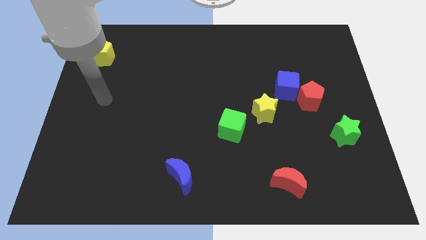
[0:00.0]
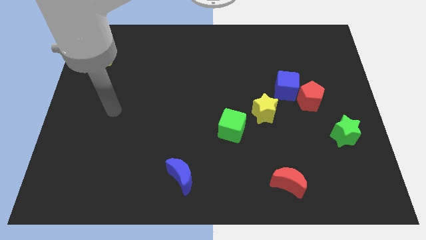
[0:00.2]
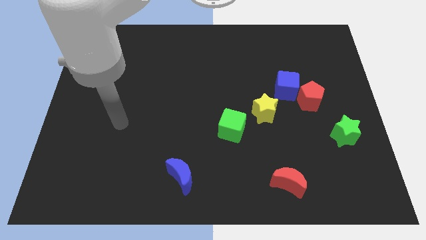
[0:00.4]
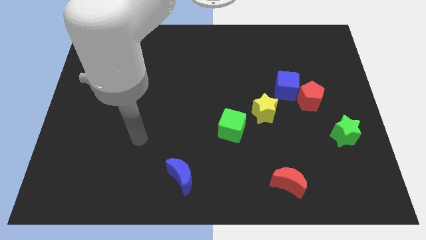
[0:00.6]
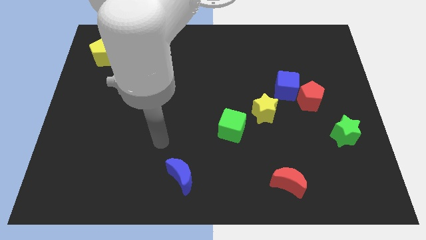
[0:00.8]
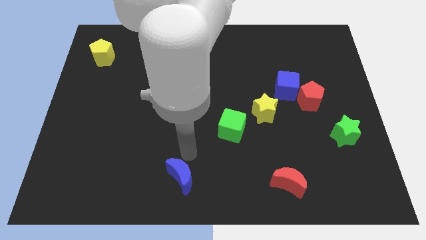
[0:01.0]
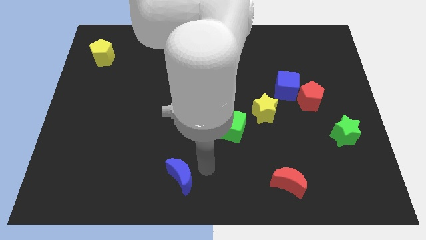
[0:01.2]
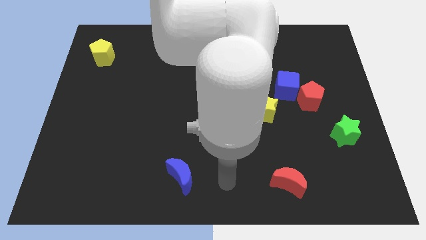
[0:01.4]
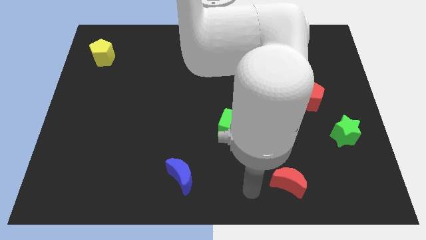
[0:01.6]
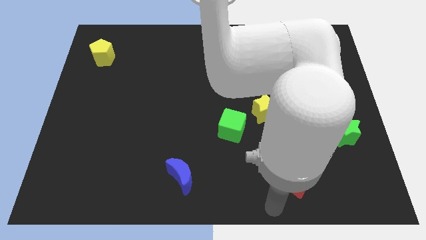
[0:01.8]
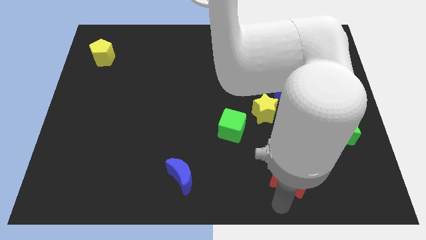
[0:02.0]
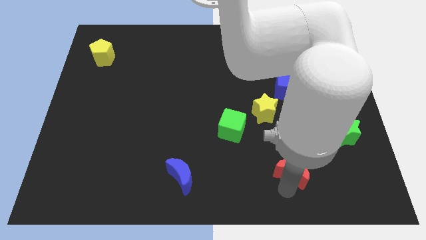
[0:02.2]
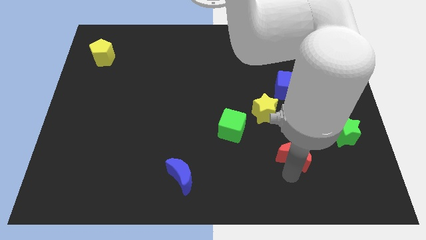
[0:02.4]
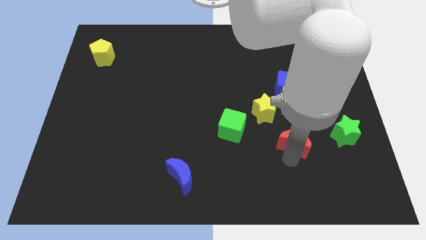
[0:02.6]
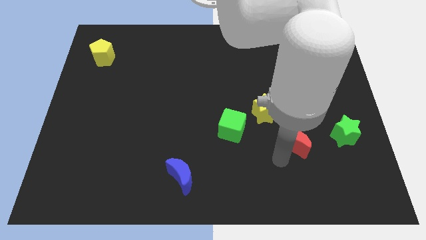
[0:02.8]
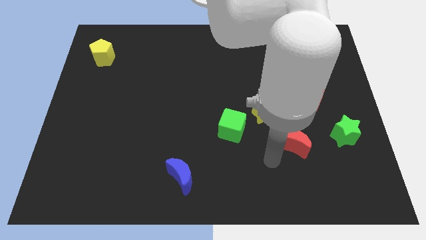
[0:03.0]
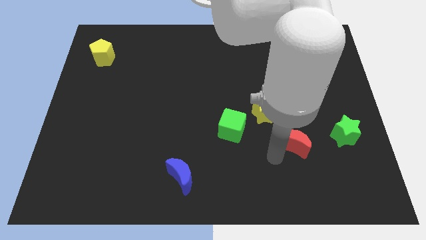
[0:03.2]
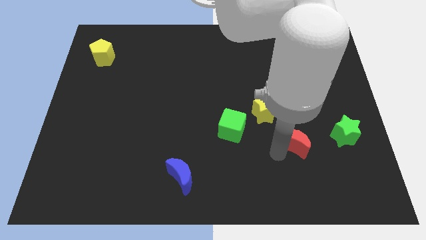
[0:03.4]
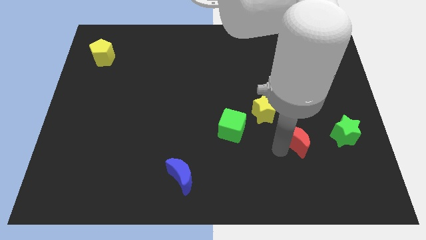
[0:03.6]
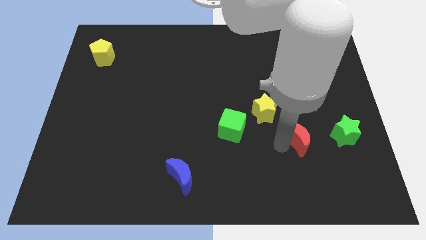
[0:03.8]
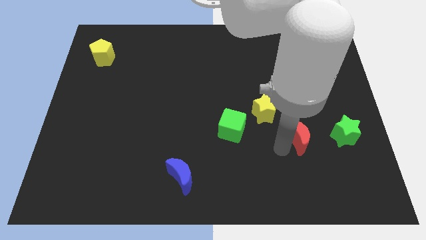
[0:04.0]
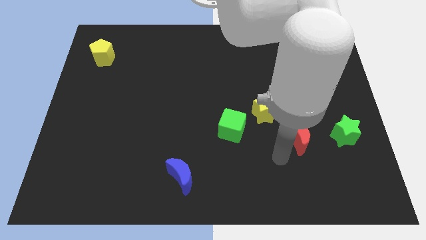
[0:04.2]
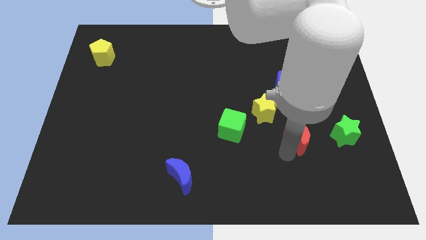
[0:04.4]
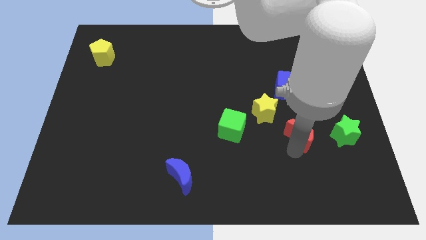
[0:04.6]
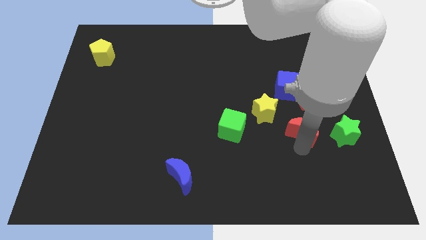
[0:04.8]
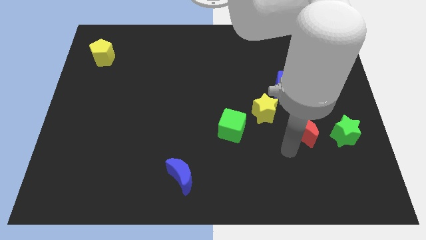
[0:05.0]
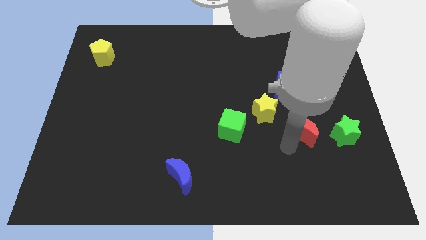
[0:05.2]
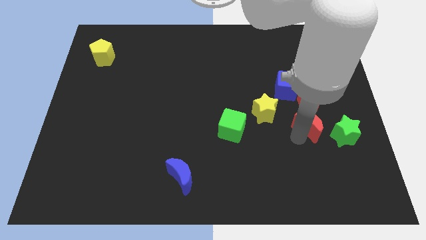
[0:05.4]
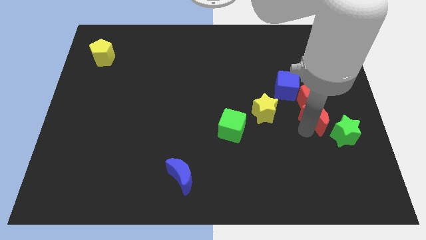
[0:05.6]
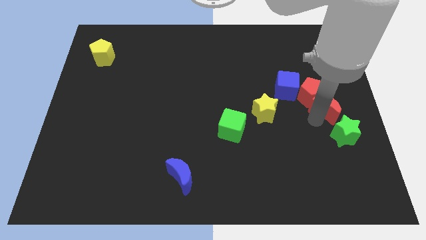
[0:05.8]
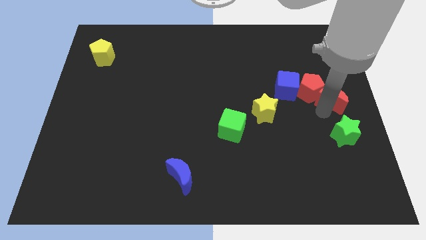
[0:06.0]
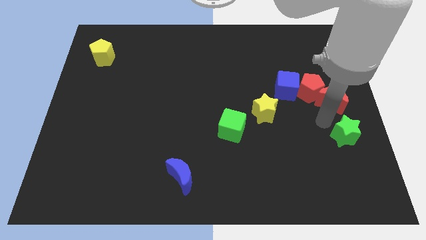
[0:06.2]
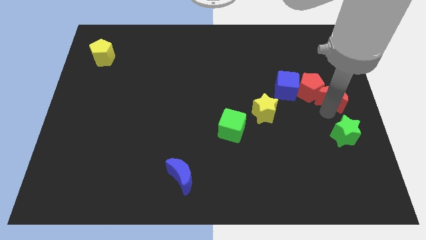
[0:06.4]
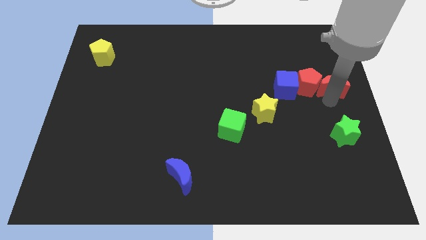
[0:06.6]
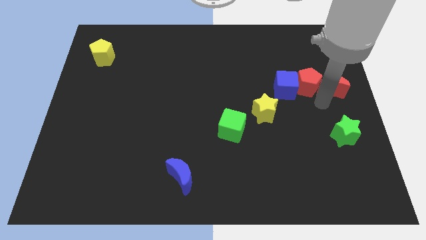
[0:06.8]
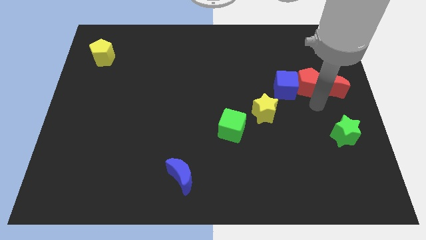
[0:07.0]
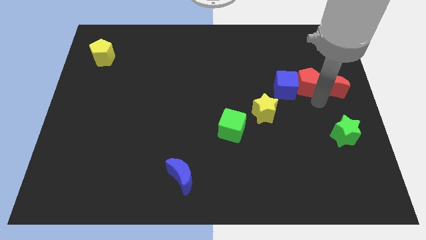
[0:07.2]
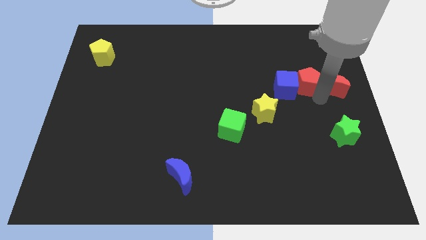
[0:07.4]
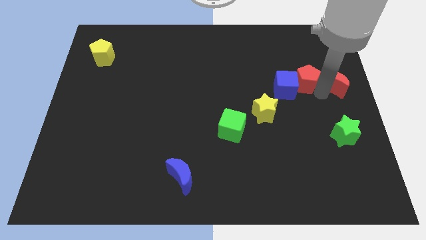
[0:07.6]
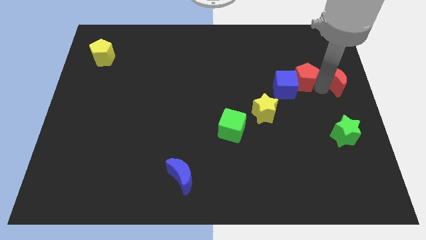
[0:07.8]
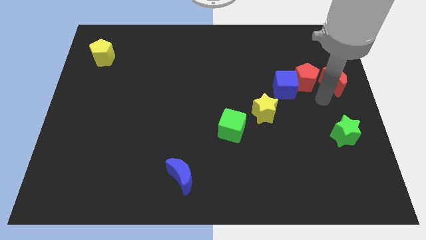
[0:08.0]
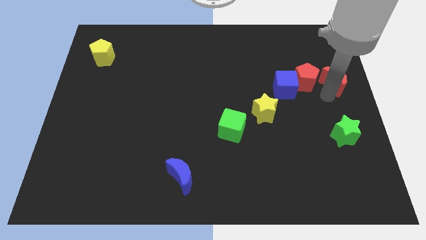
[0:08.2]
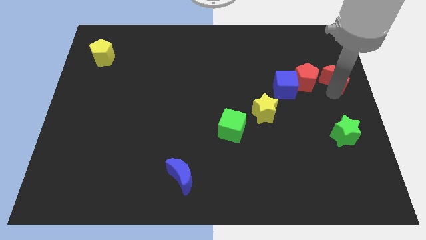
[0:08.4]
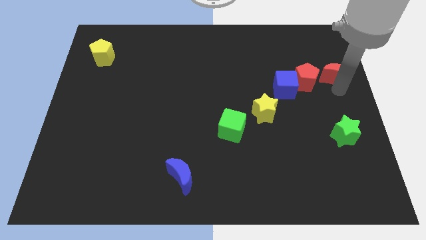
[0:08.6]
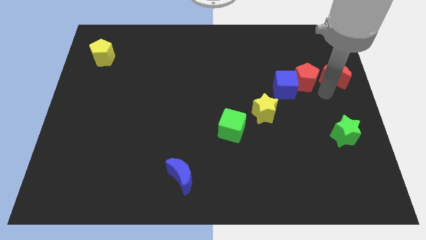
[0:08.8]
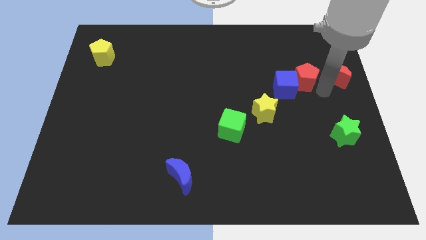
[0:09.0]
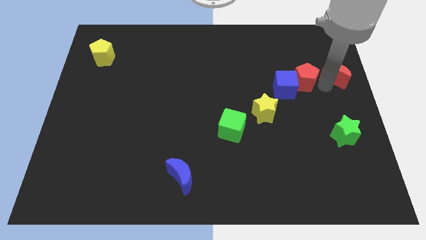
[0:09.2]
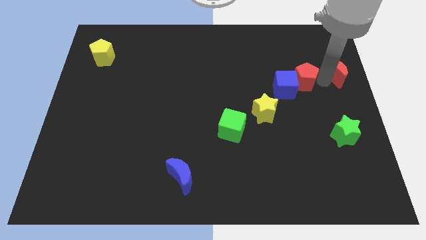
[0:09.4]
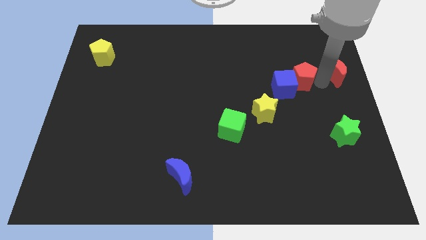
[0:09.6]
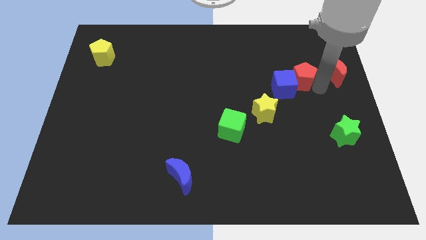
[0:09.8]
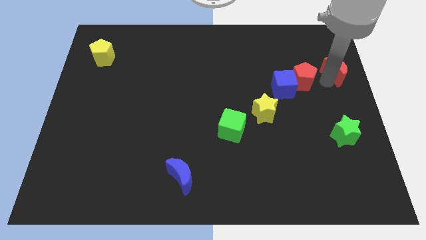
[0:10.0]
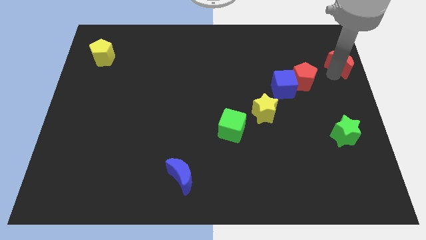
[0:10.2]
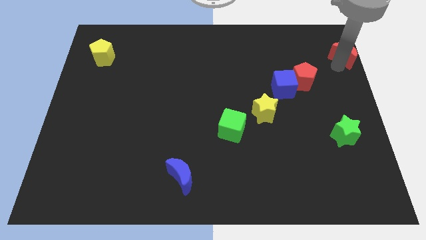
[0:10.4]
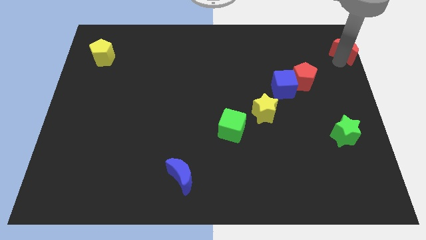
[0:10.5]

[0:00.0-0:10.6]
put the red moon to the top right
